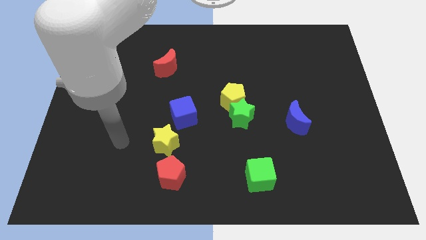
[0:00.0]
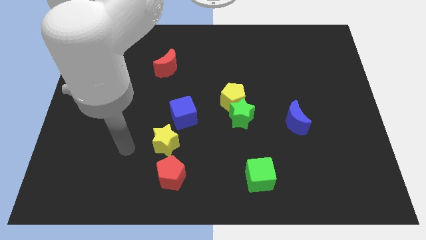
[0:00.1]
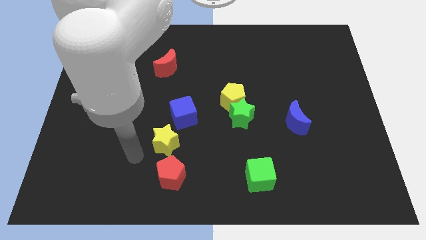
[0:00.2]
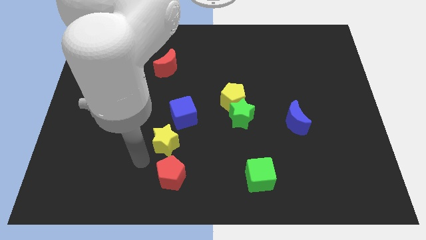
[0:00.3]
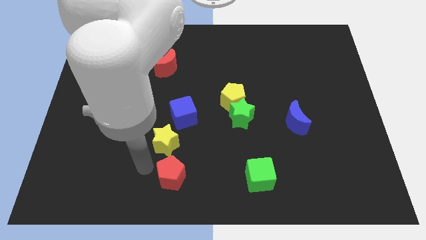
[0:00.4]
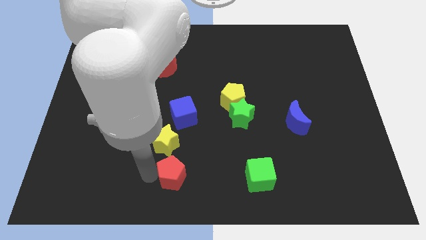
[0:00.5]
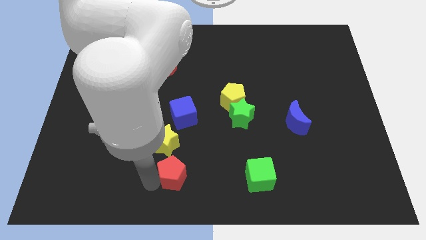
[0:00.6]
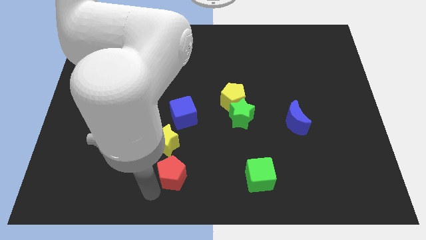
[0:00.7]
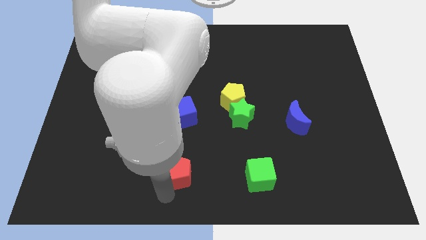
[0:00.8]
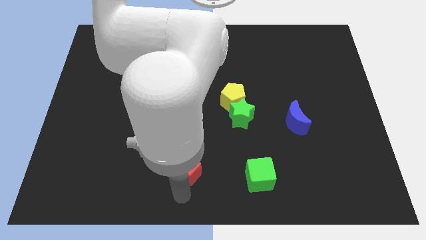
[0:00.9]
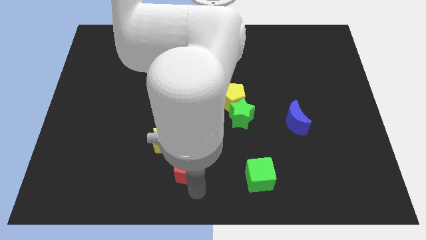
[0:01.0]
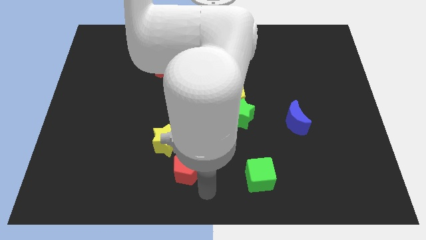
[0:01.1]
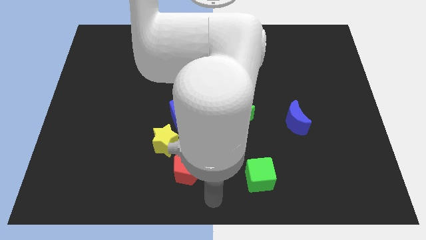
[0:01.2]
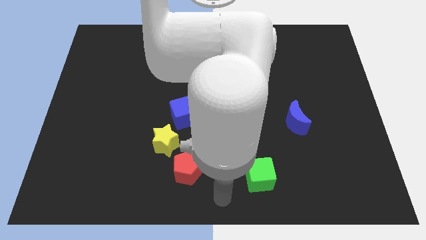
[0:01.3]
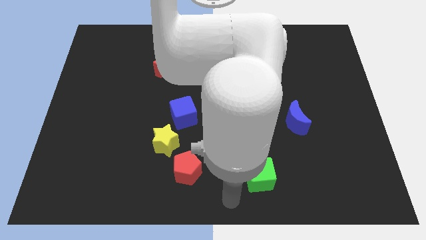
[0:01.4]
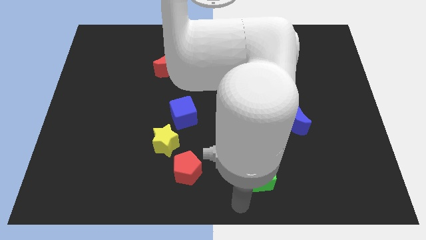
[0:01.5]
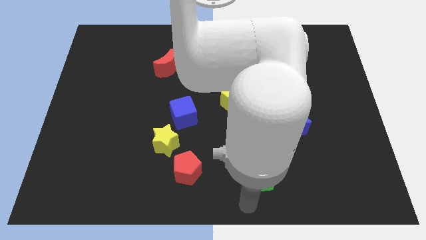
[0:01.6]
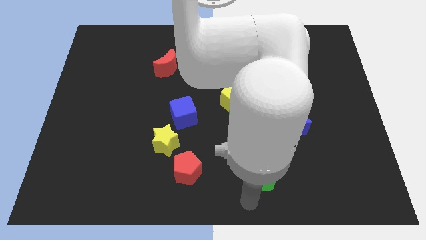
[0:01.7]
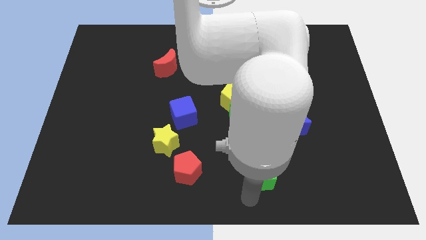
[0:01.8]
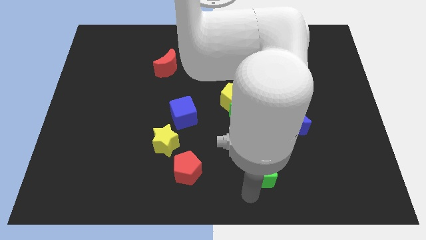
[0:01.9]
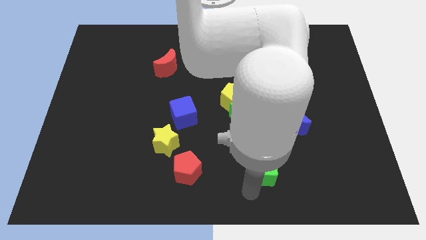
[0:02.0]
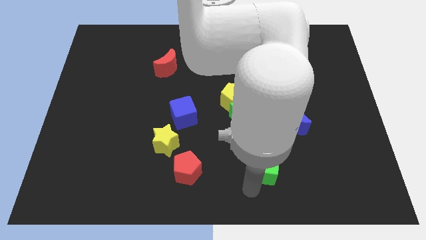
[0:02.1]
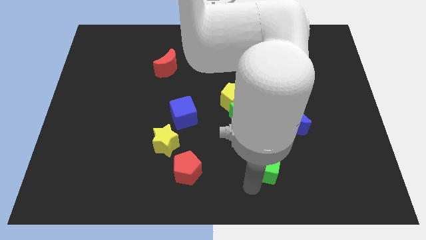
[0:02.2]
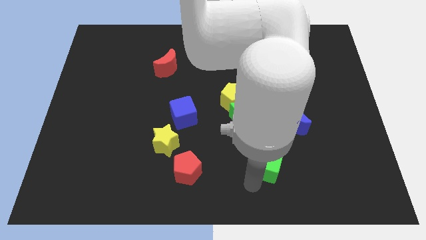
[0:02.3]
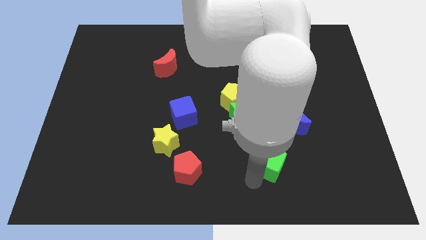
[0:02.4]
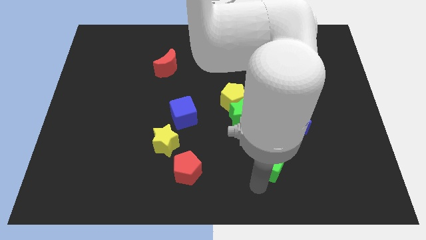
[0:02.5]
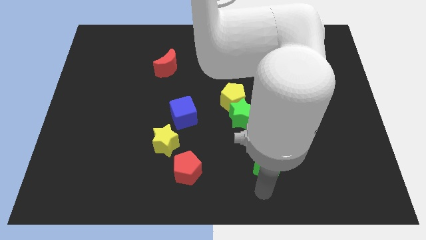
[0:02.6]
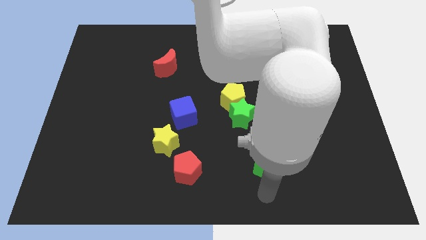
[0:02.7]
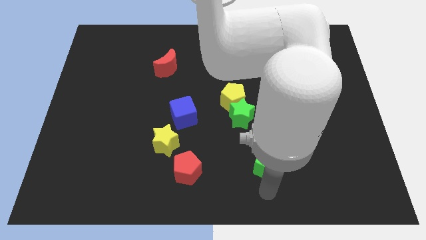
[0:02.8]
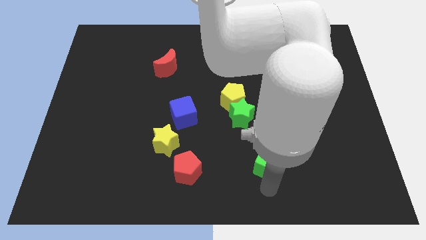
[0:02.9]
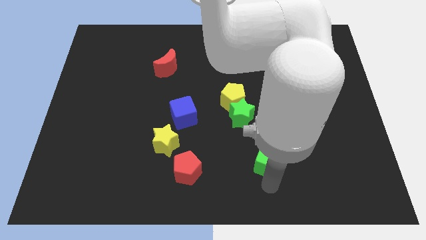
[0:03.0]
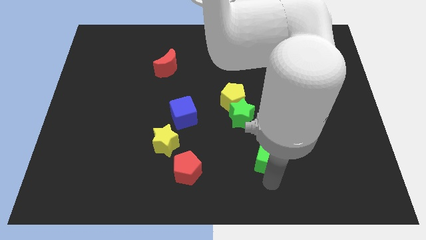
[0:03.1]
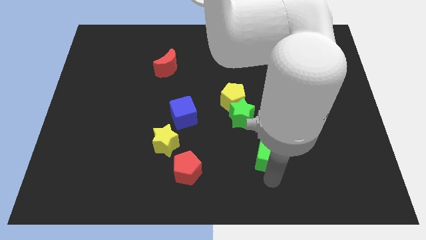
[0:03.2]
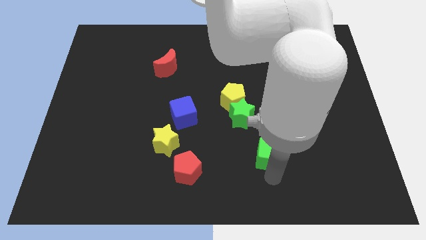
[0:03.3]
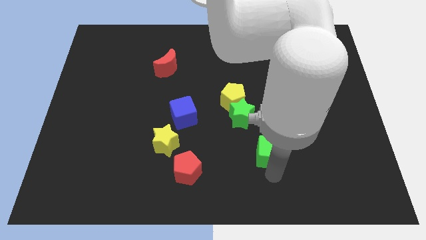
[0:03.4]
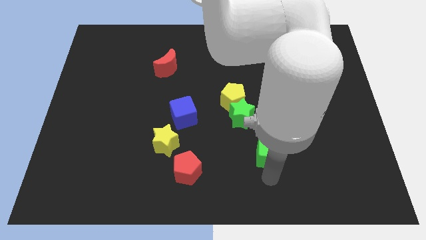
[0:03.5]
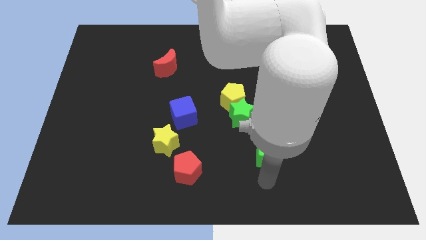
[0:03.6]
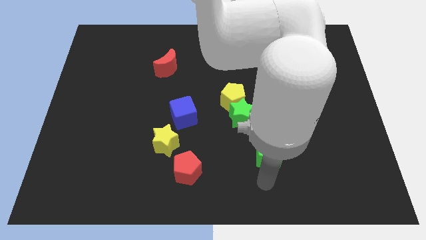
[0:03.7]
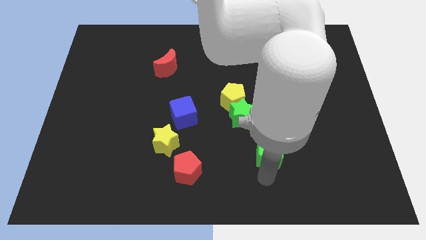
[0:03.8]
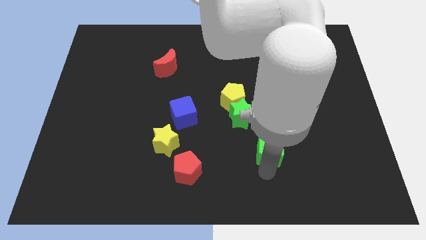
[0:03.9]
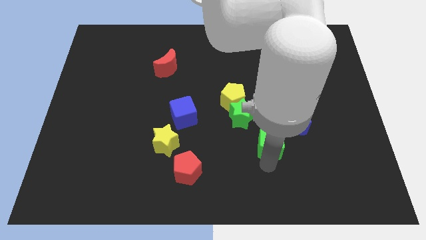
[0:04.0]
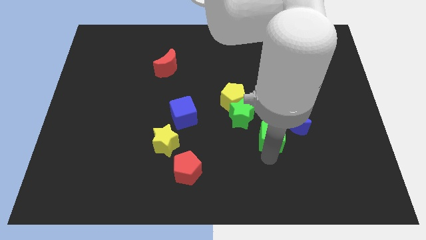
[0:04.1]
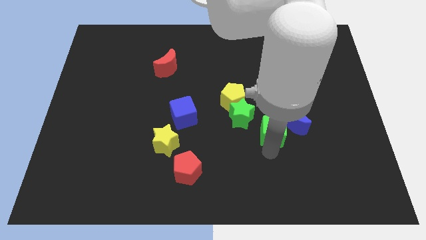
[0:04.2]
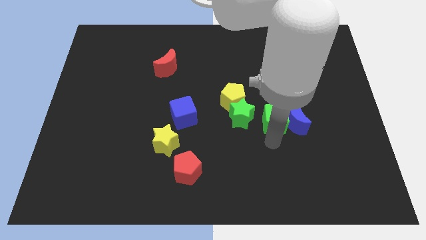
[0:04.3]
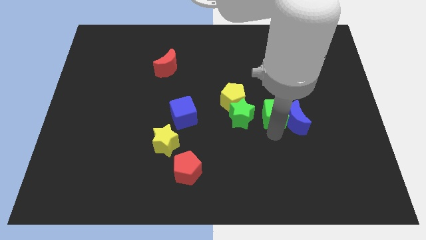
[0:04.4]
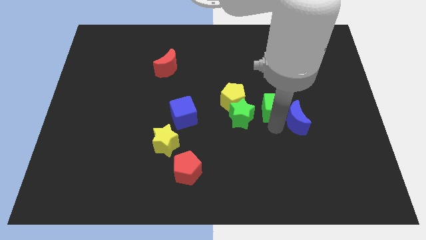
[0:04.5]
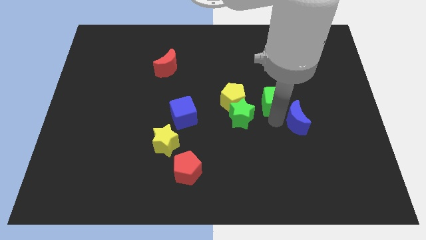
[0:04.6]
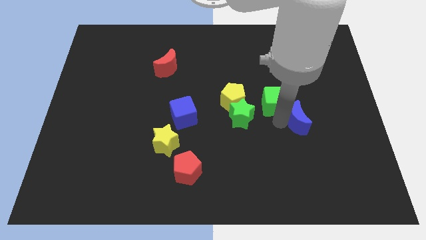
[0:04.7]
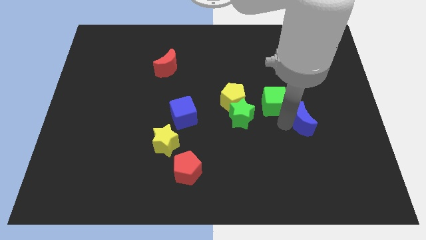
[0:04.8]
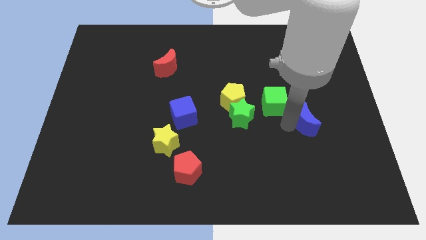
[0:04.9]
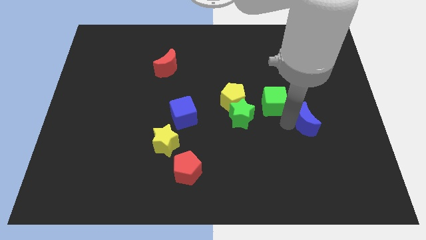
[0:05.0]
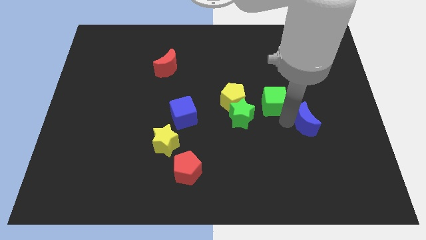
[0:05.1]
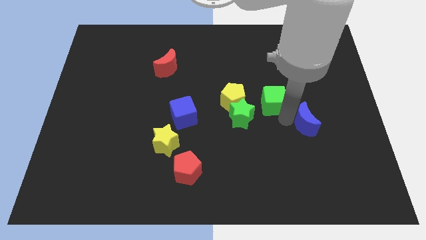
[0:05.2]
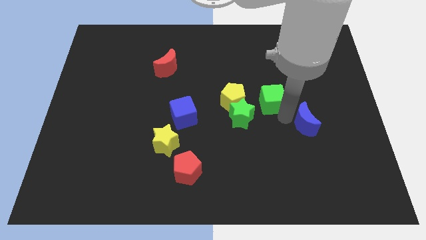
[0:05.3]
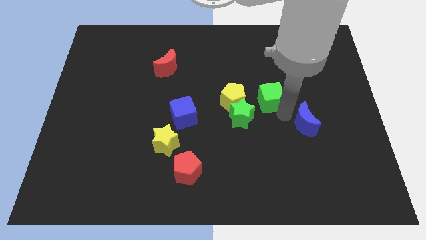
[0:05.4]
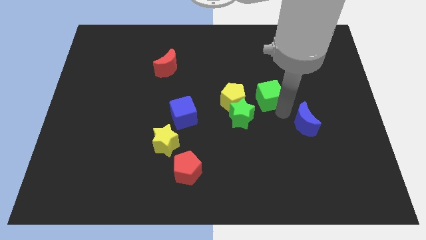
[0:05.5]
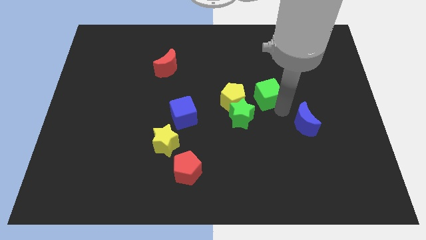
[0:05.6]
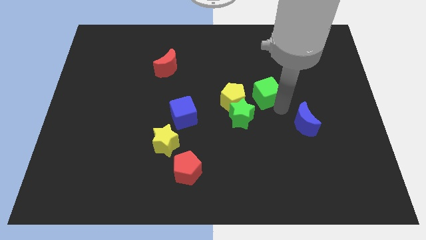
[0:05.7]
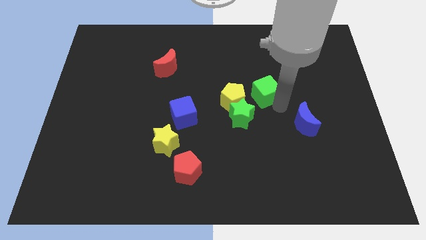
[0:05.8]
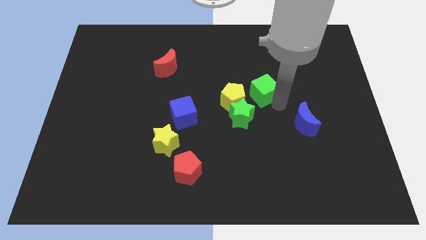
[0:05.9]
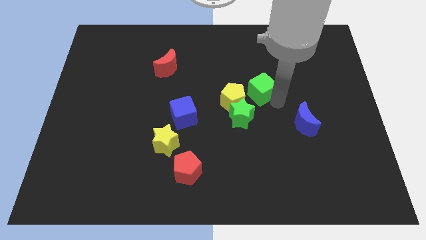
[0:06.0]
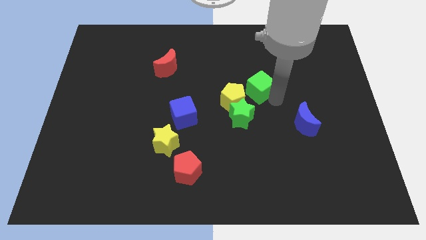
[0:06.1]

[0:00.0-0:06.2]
push the green cube to the top of the green star
